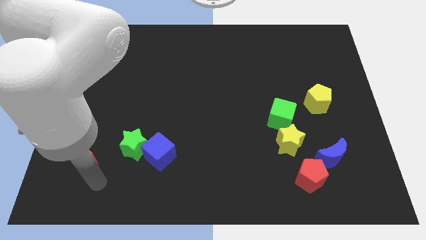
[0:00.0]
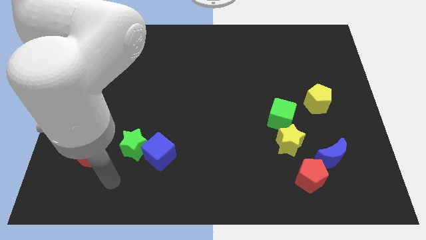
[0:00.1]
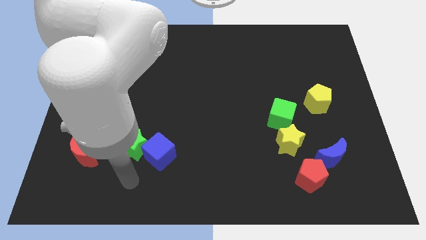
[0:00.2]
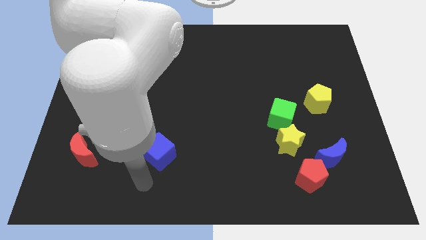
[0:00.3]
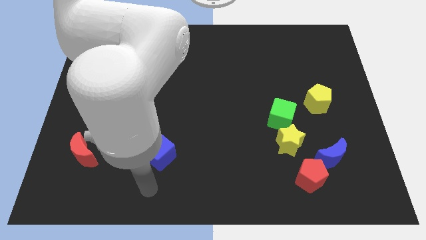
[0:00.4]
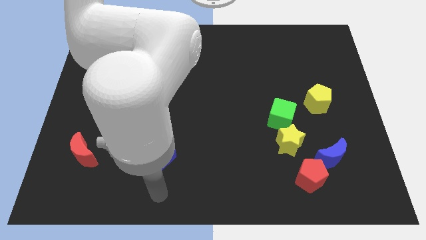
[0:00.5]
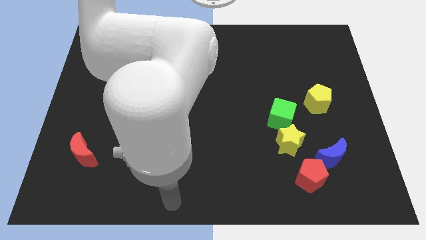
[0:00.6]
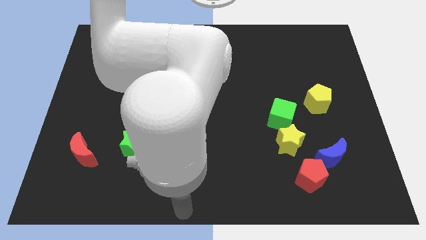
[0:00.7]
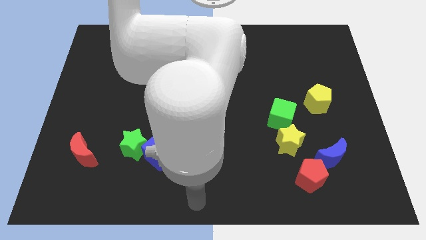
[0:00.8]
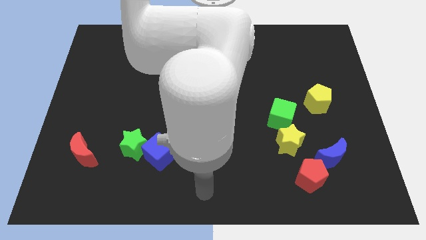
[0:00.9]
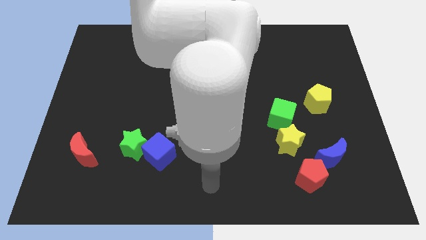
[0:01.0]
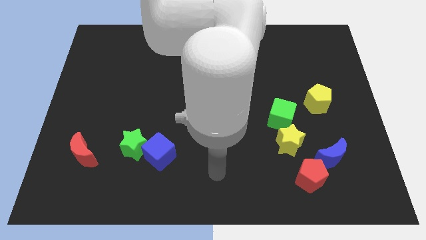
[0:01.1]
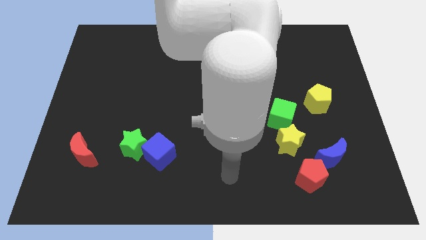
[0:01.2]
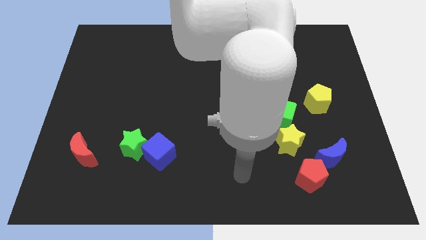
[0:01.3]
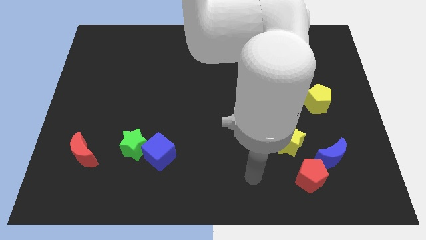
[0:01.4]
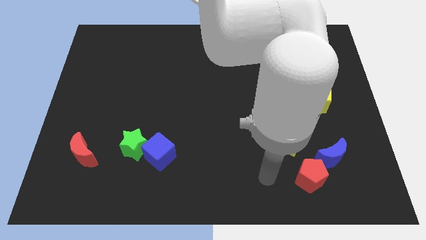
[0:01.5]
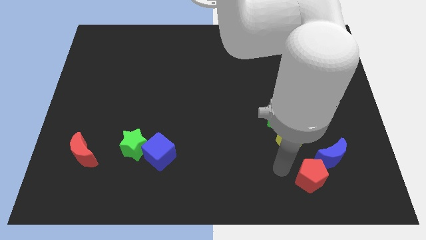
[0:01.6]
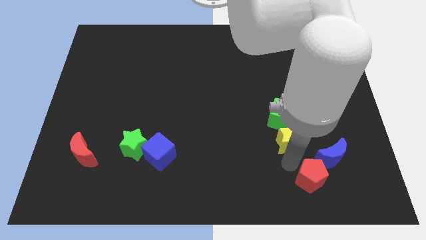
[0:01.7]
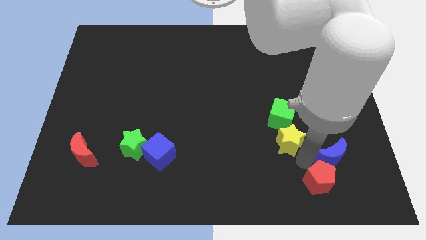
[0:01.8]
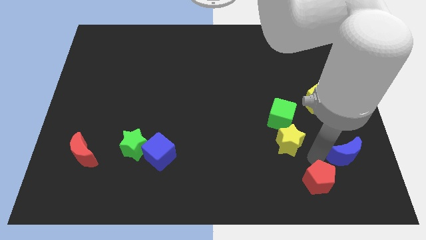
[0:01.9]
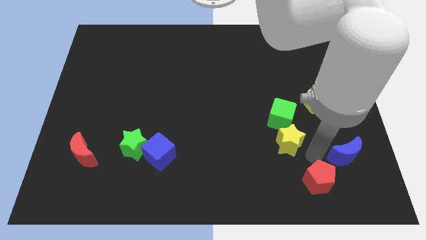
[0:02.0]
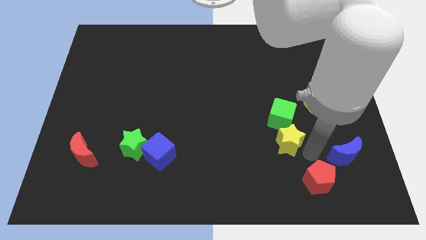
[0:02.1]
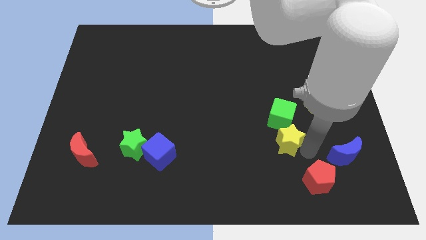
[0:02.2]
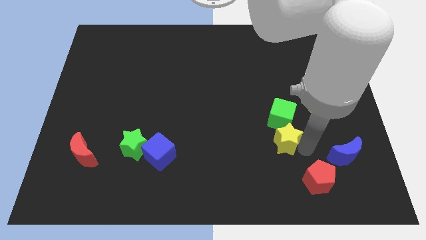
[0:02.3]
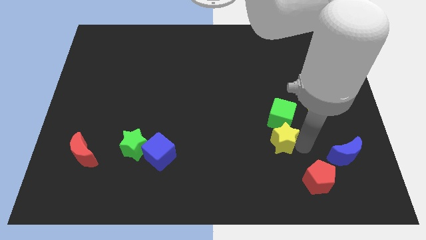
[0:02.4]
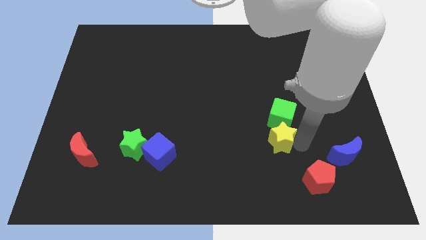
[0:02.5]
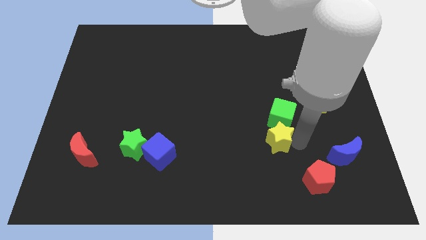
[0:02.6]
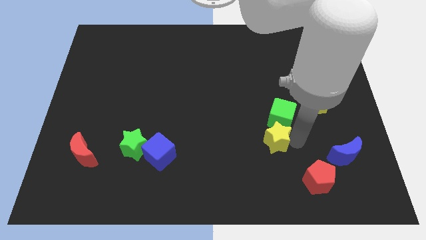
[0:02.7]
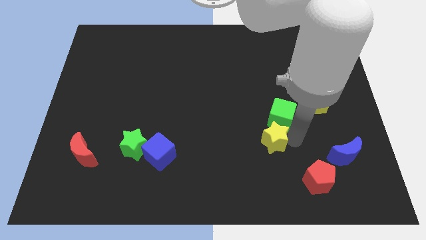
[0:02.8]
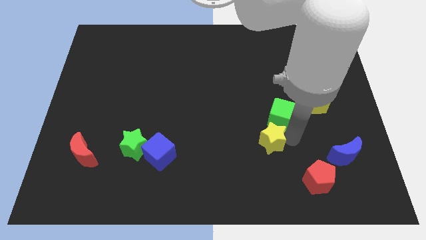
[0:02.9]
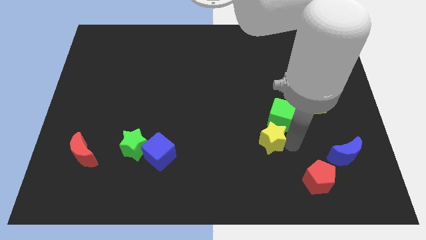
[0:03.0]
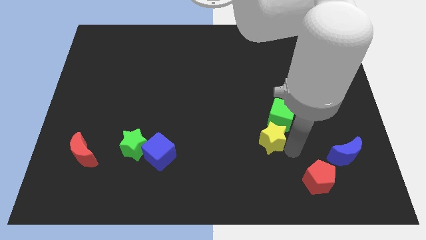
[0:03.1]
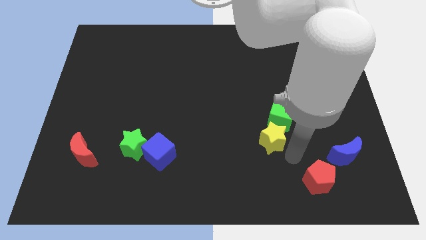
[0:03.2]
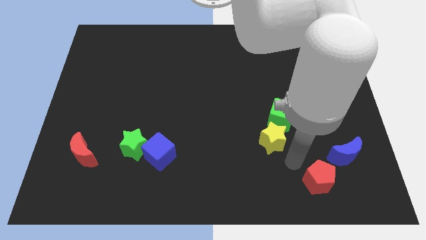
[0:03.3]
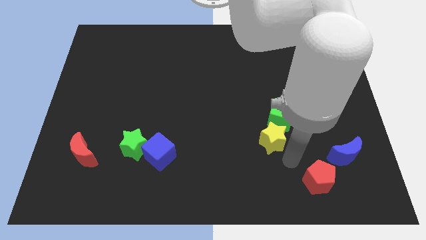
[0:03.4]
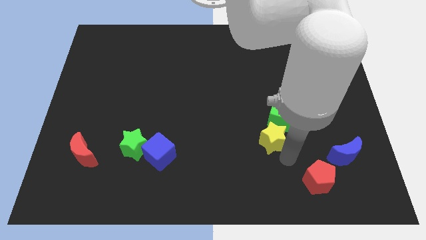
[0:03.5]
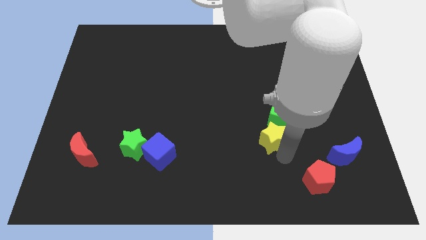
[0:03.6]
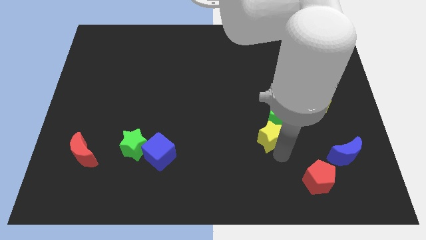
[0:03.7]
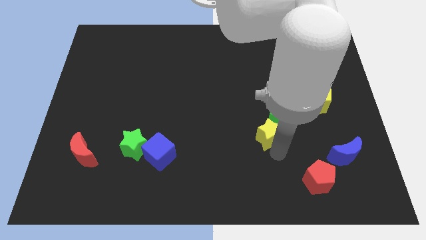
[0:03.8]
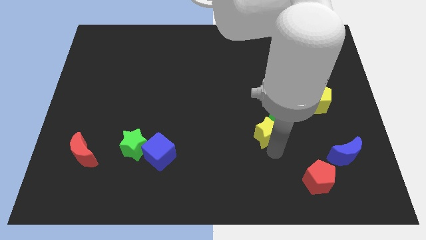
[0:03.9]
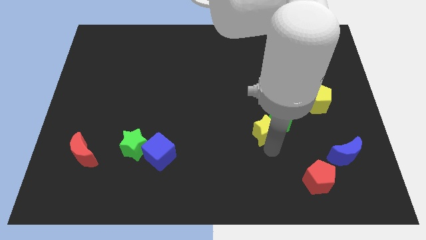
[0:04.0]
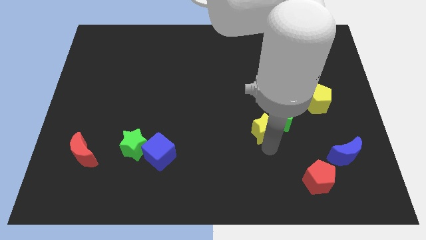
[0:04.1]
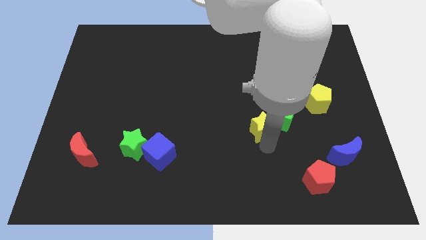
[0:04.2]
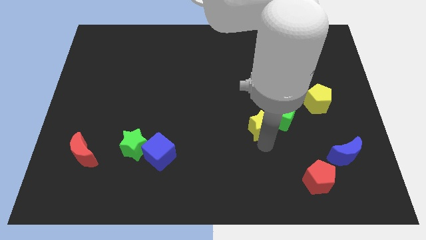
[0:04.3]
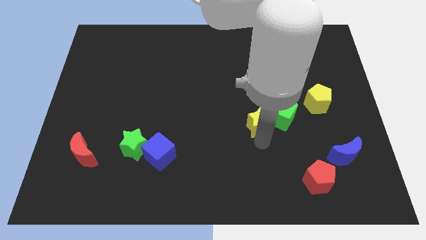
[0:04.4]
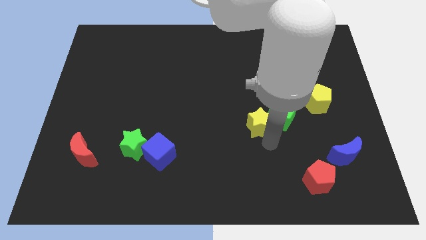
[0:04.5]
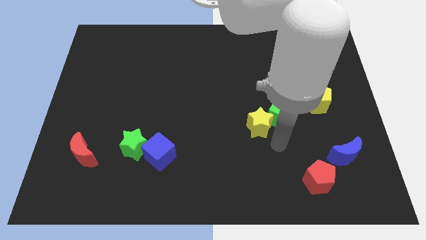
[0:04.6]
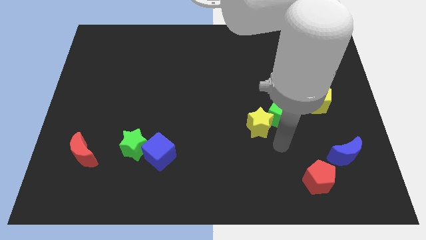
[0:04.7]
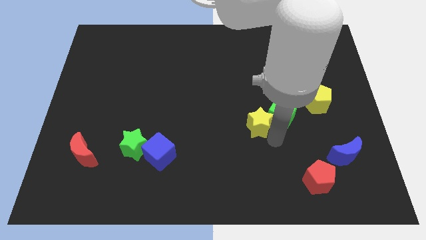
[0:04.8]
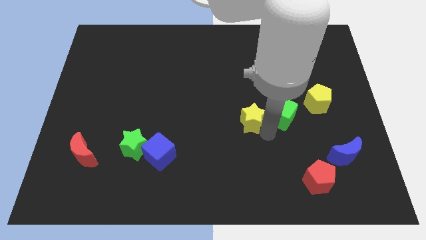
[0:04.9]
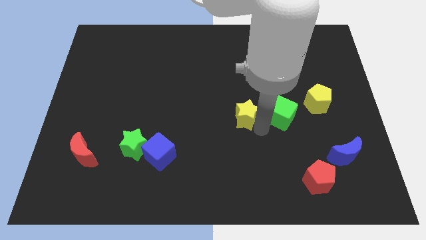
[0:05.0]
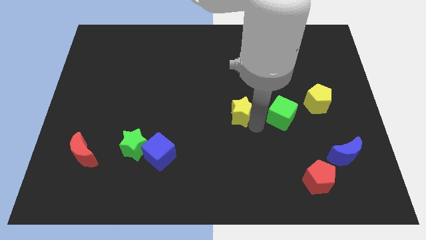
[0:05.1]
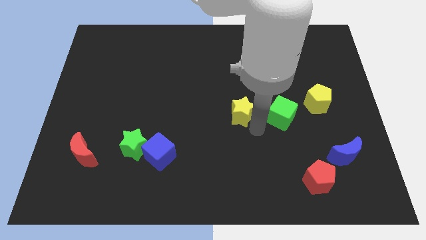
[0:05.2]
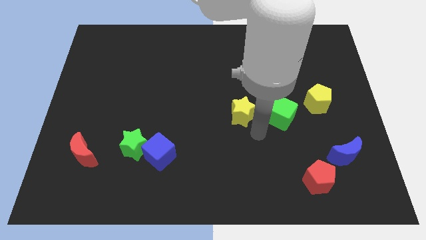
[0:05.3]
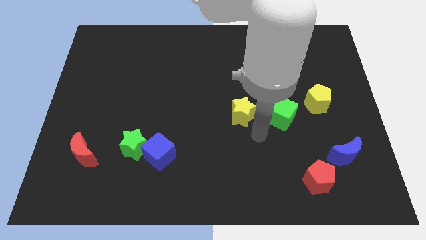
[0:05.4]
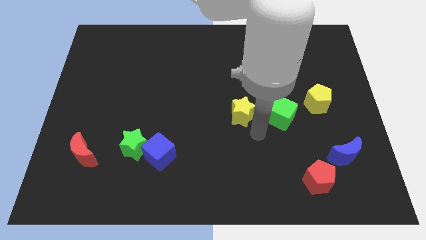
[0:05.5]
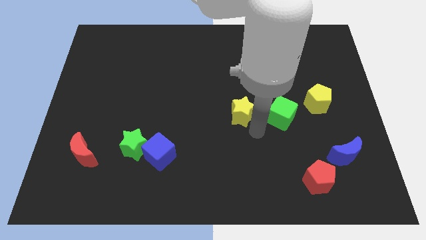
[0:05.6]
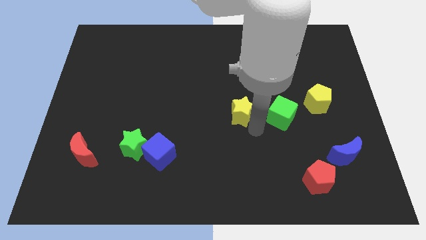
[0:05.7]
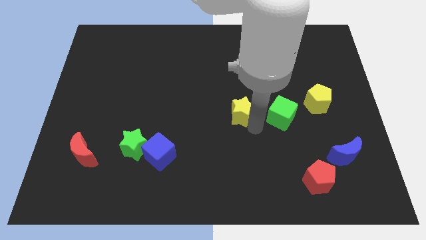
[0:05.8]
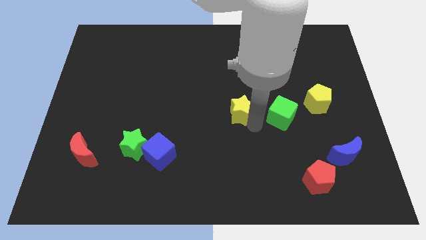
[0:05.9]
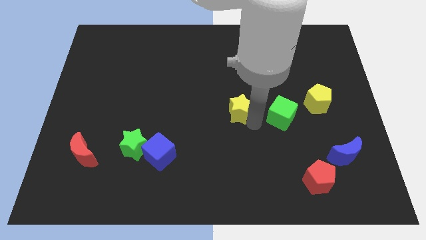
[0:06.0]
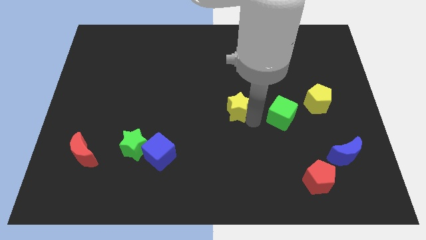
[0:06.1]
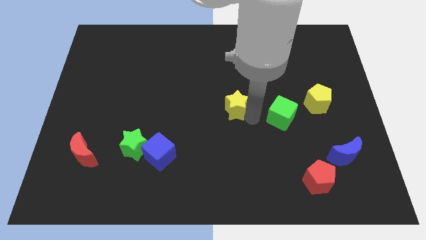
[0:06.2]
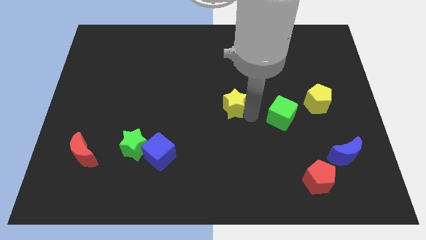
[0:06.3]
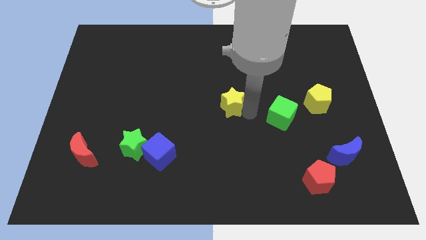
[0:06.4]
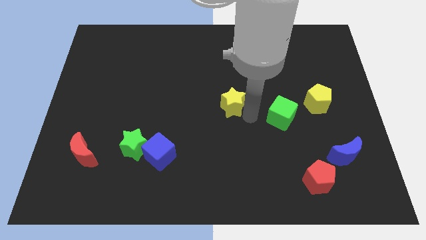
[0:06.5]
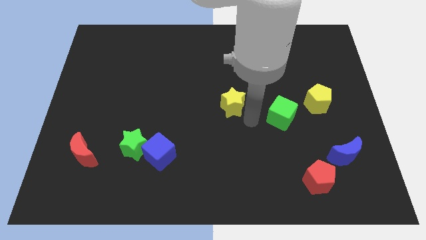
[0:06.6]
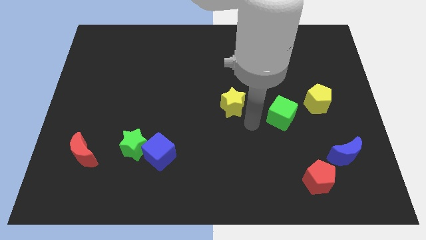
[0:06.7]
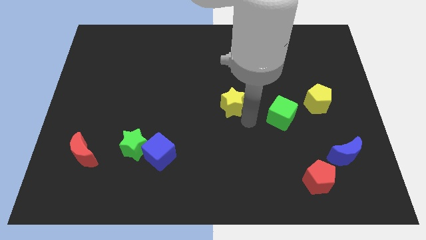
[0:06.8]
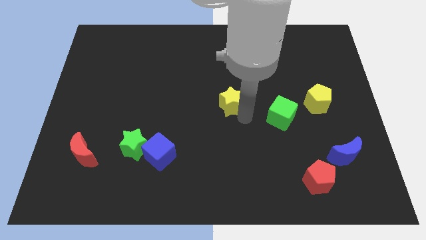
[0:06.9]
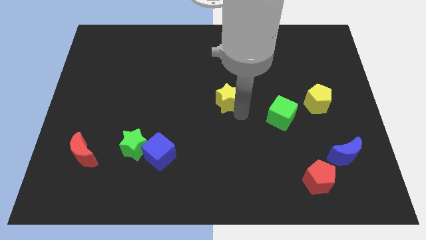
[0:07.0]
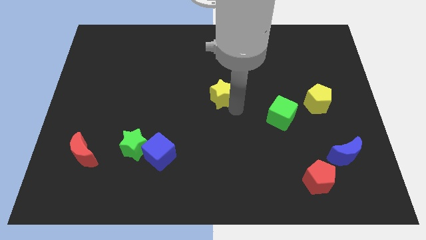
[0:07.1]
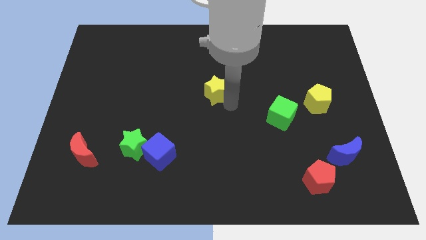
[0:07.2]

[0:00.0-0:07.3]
move the yellow star diagonally up and left

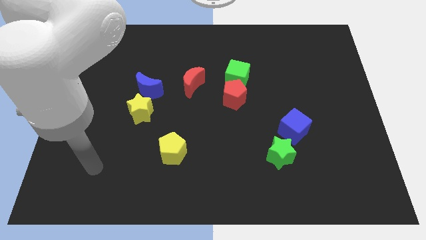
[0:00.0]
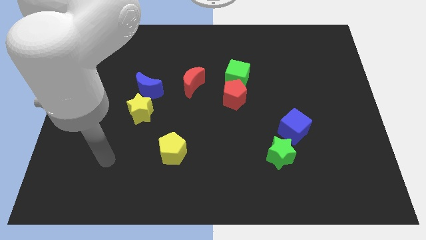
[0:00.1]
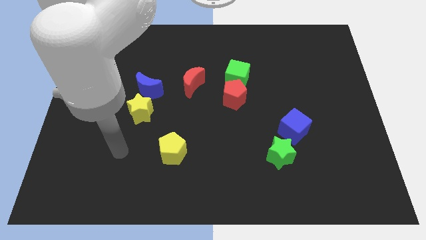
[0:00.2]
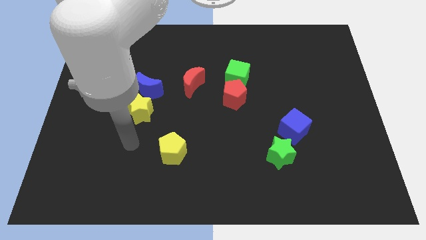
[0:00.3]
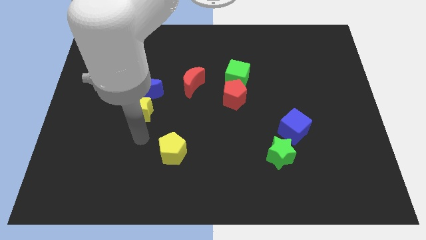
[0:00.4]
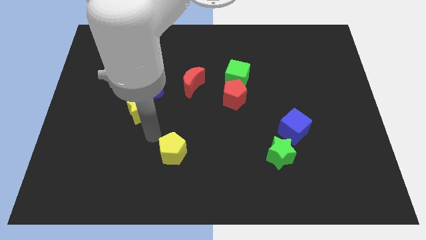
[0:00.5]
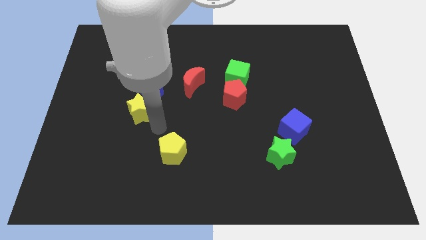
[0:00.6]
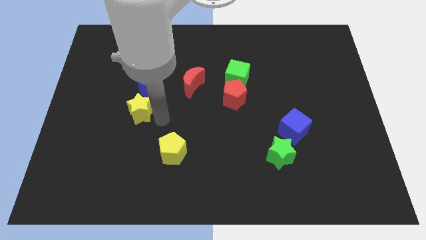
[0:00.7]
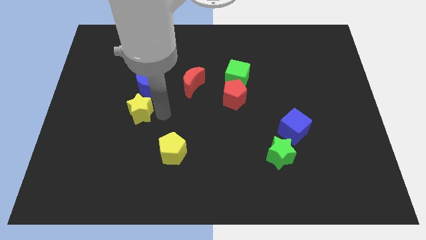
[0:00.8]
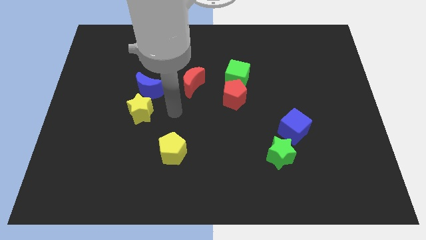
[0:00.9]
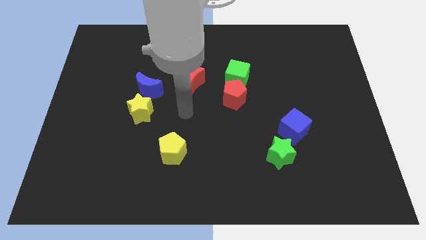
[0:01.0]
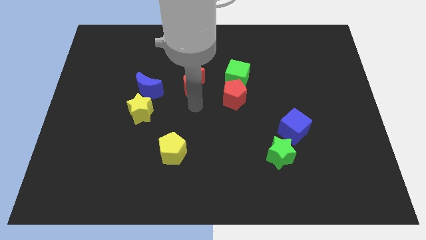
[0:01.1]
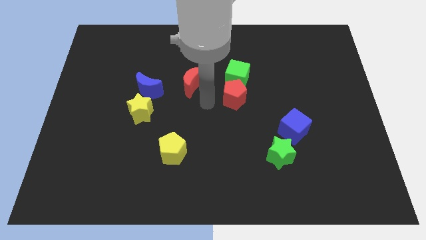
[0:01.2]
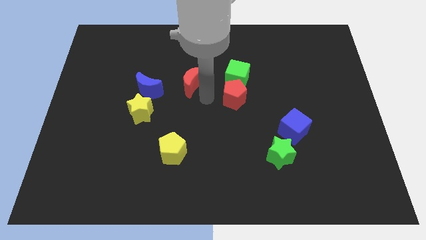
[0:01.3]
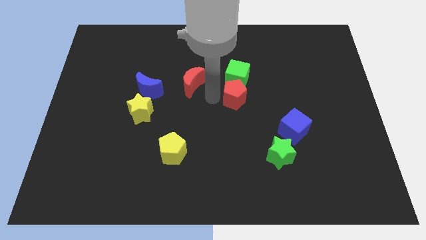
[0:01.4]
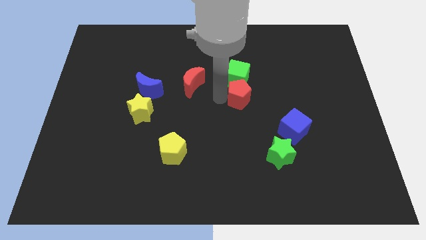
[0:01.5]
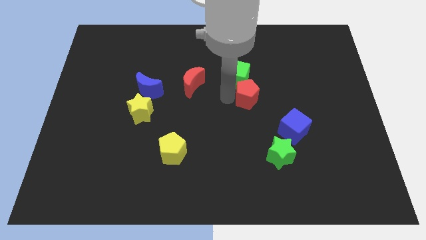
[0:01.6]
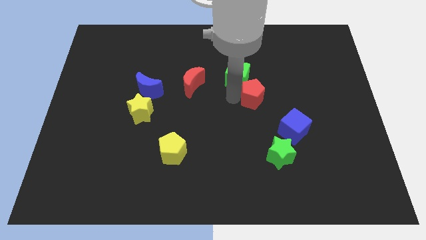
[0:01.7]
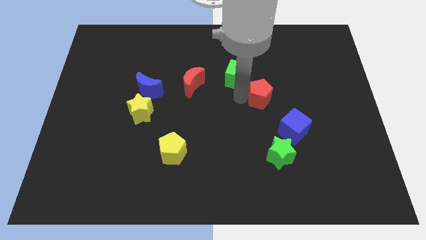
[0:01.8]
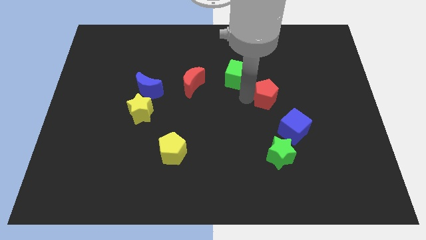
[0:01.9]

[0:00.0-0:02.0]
move the red pentagon to the right a bit
